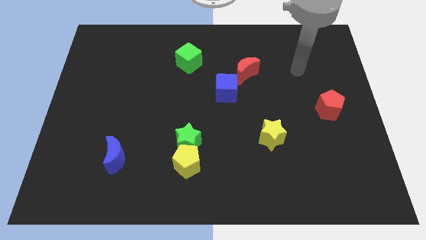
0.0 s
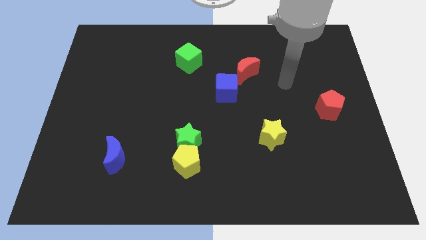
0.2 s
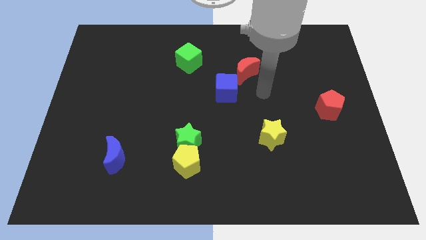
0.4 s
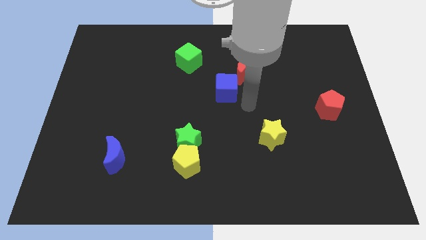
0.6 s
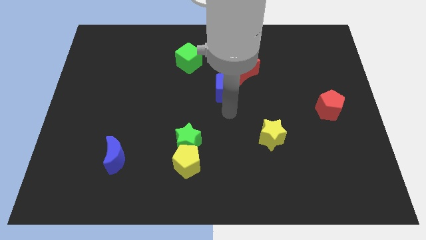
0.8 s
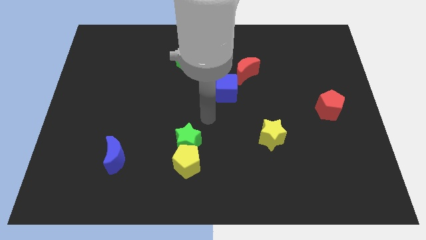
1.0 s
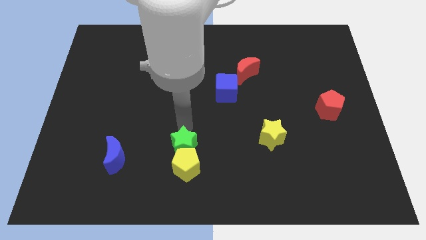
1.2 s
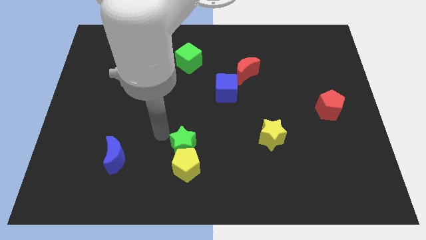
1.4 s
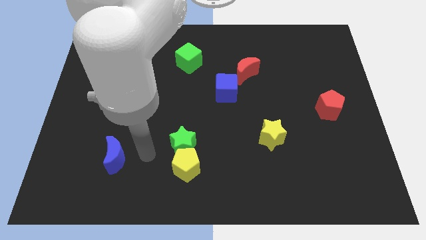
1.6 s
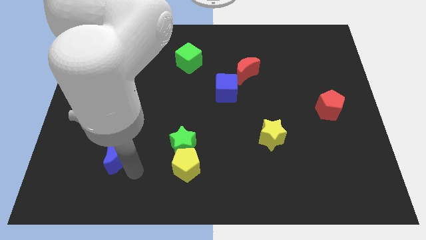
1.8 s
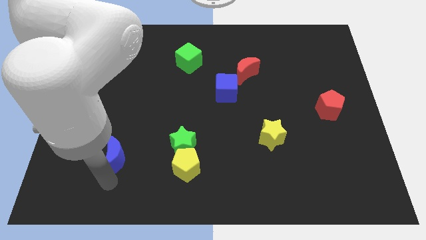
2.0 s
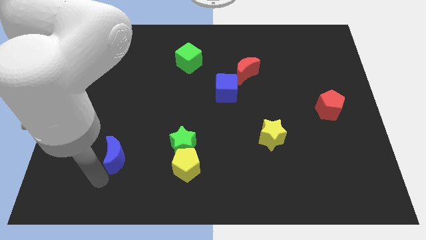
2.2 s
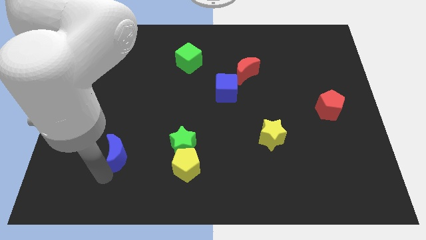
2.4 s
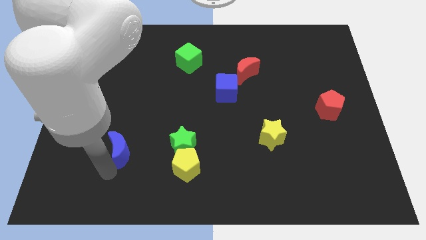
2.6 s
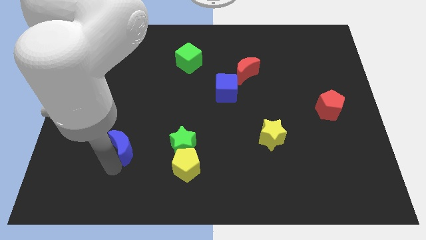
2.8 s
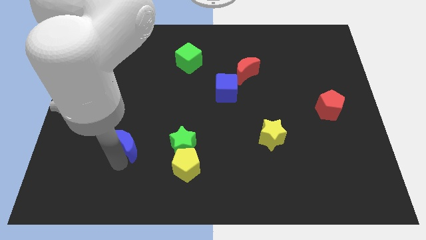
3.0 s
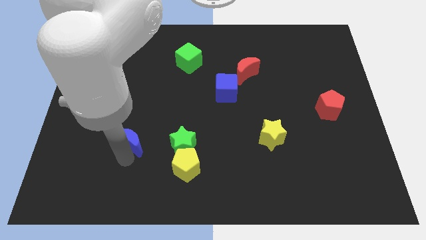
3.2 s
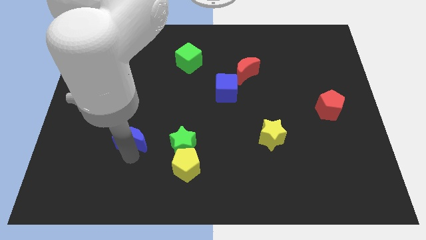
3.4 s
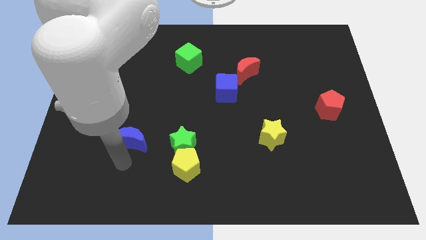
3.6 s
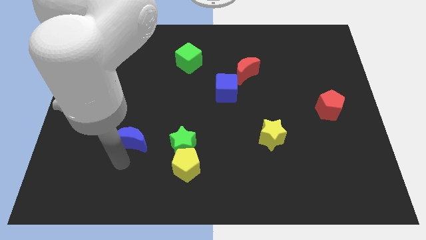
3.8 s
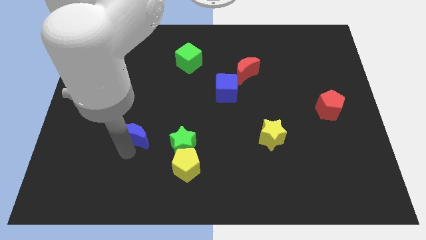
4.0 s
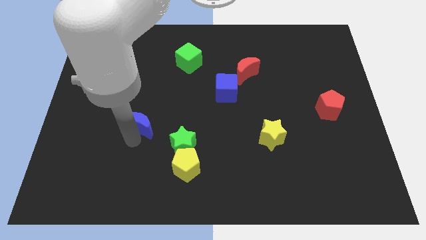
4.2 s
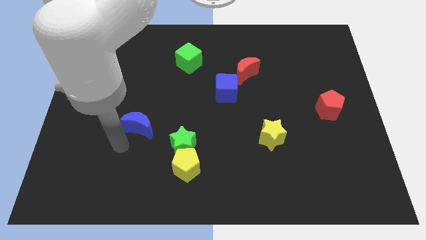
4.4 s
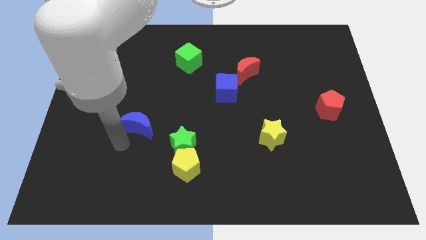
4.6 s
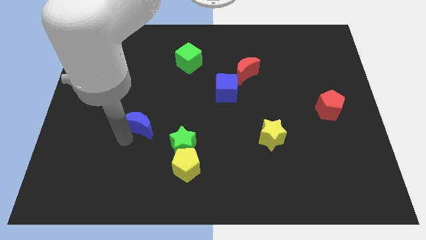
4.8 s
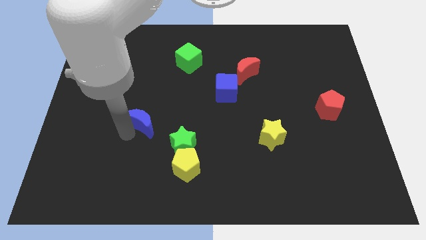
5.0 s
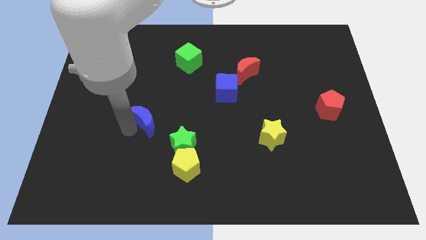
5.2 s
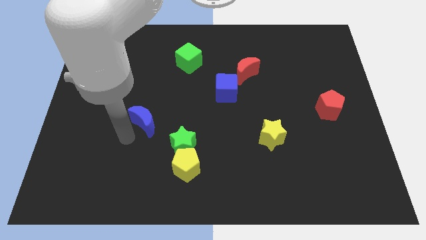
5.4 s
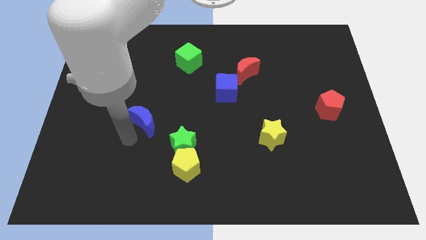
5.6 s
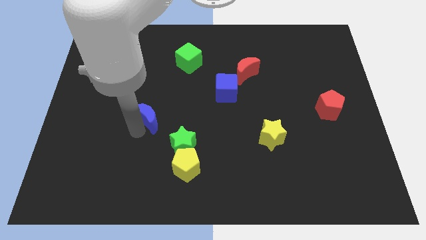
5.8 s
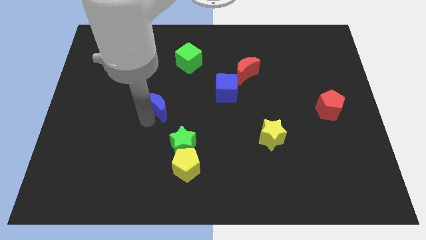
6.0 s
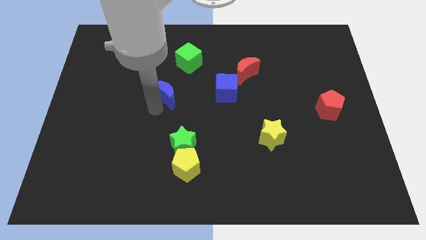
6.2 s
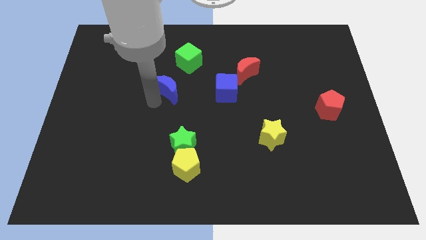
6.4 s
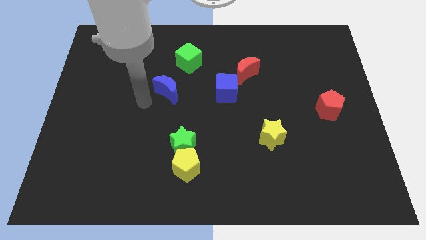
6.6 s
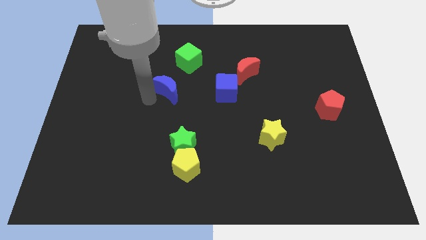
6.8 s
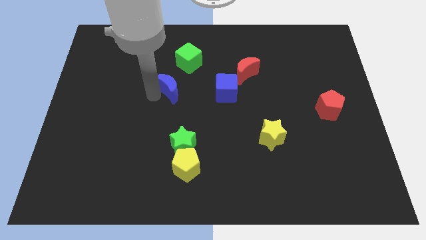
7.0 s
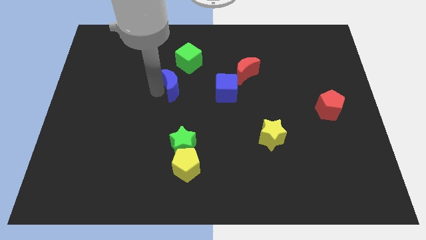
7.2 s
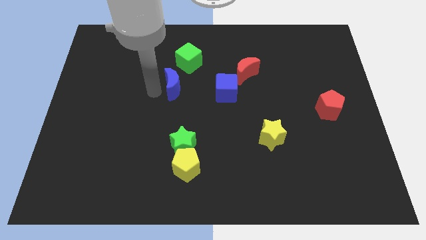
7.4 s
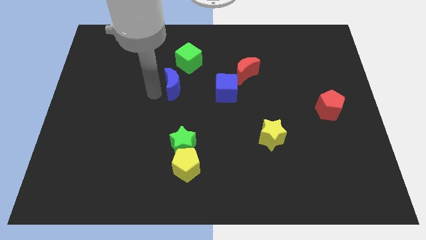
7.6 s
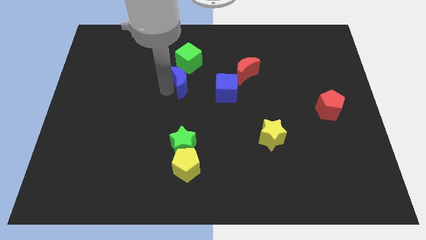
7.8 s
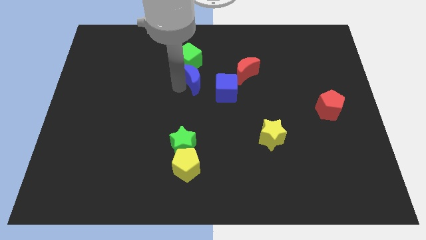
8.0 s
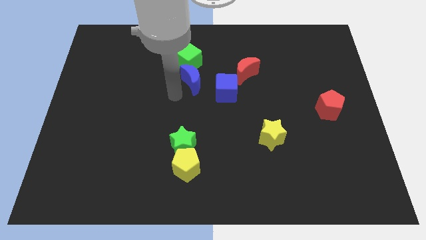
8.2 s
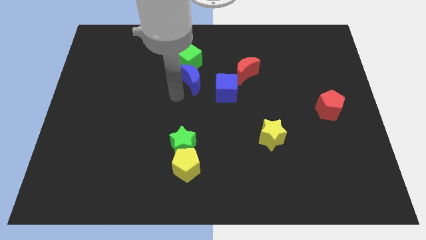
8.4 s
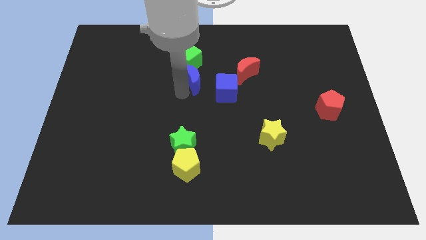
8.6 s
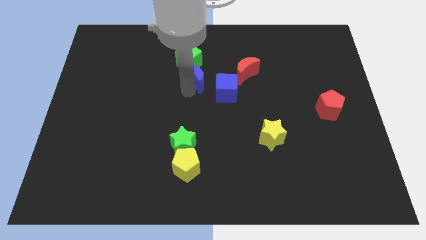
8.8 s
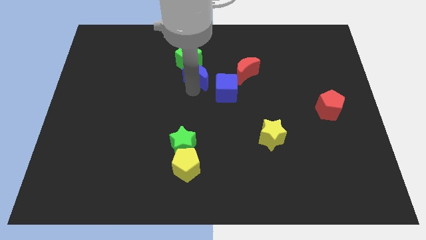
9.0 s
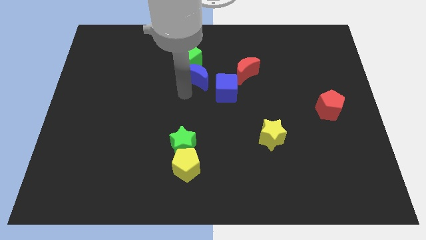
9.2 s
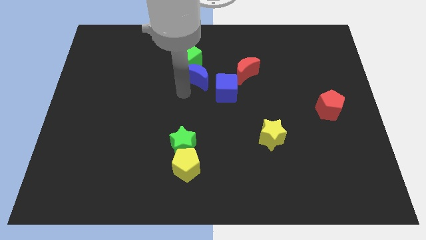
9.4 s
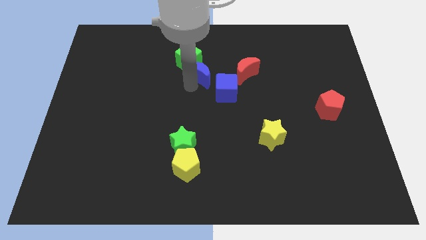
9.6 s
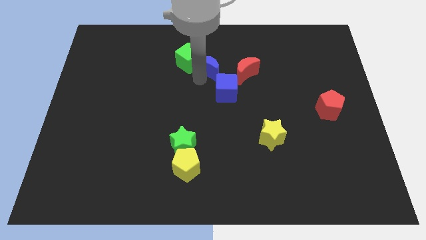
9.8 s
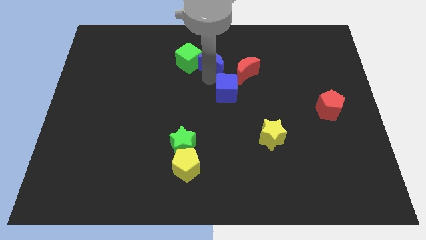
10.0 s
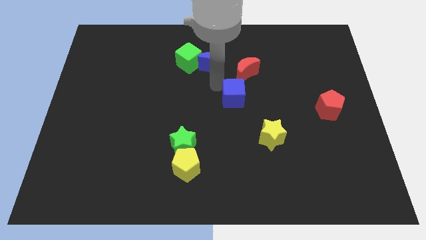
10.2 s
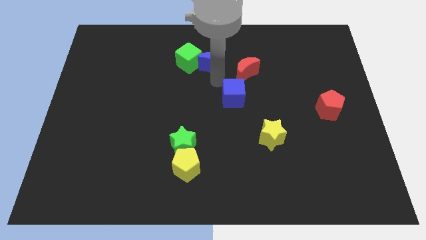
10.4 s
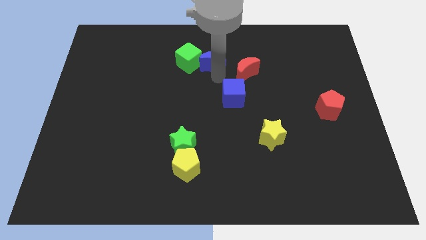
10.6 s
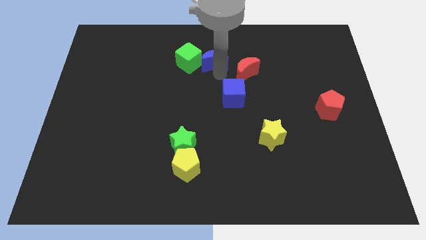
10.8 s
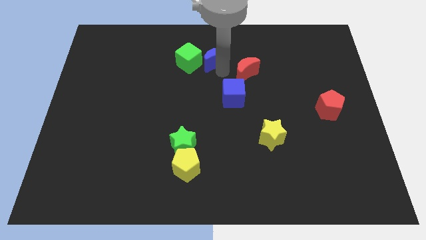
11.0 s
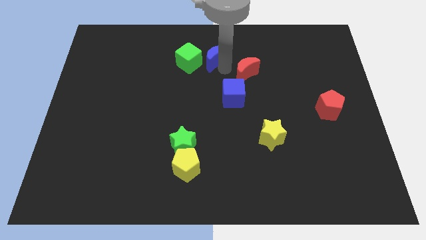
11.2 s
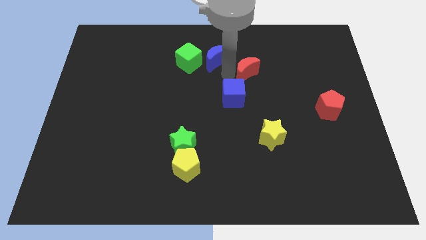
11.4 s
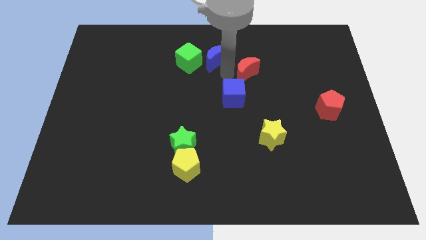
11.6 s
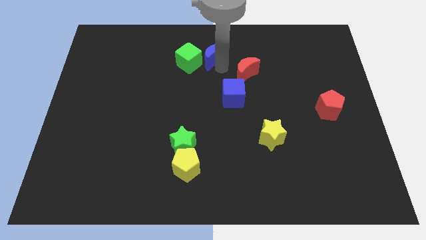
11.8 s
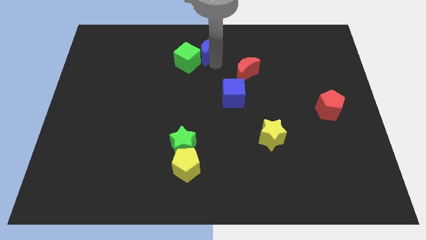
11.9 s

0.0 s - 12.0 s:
push the blue moon to the towards your base

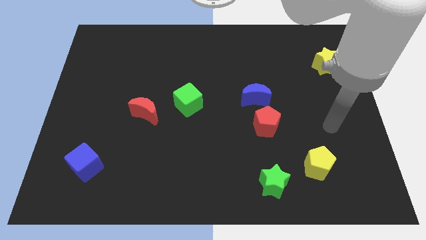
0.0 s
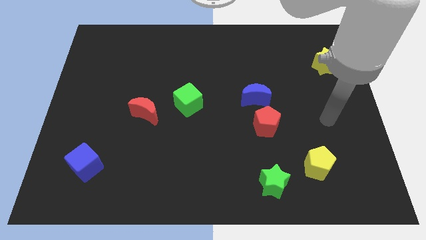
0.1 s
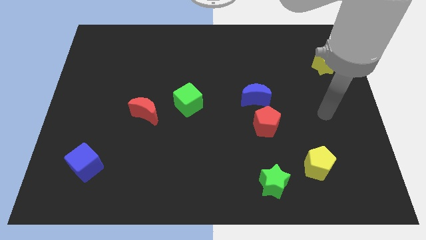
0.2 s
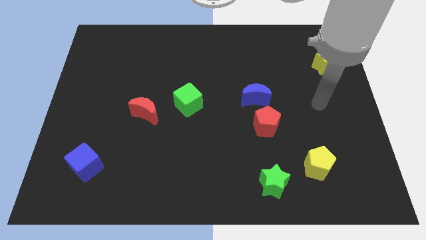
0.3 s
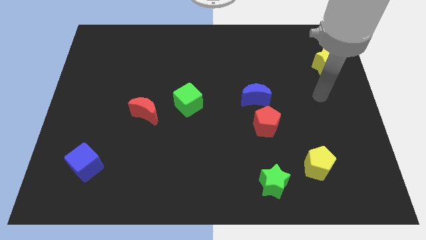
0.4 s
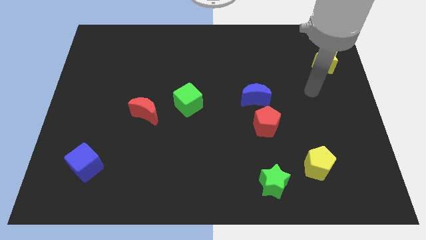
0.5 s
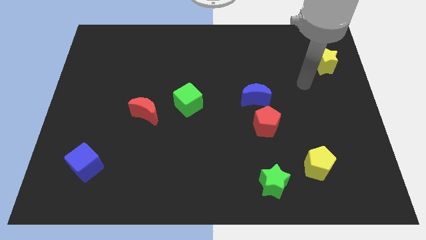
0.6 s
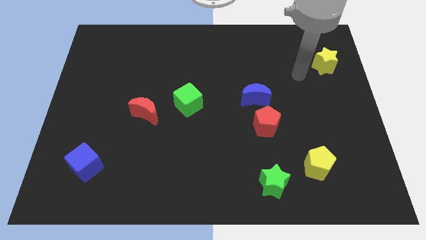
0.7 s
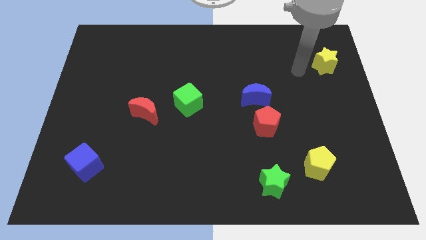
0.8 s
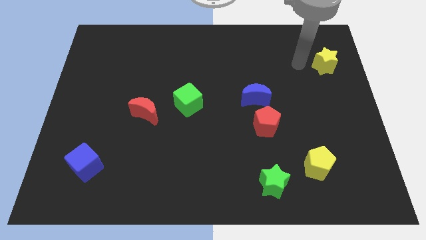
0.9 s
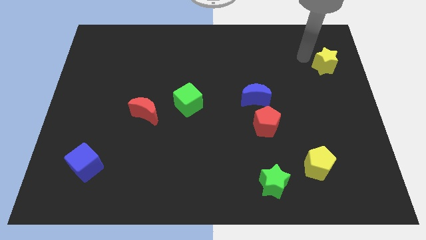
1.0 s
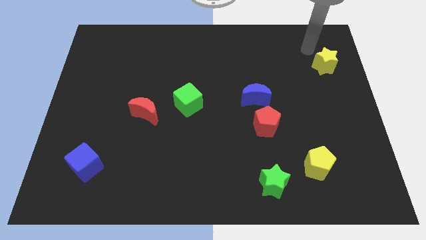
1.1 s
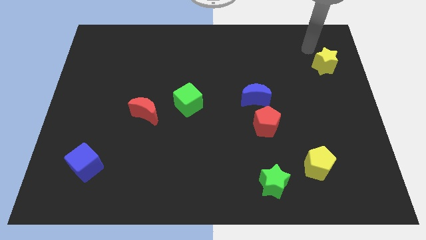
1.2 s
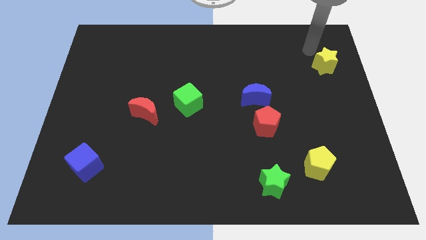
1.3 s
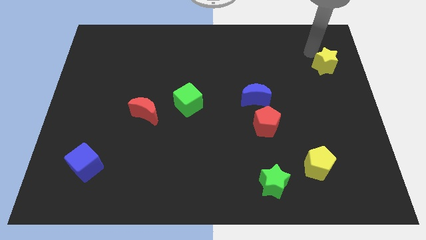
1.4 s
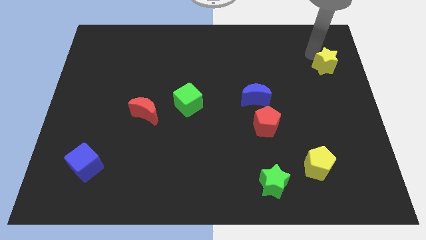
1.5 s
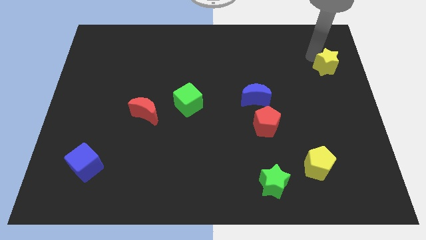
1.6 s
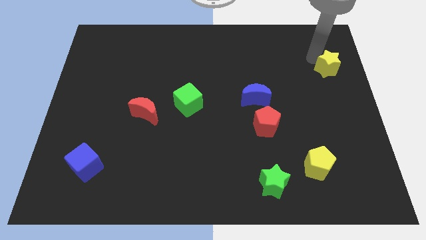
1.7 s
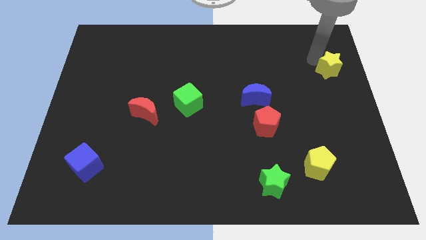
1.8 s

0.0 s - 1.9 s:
push the yellow star to the right side
